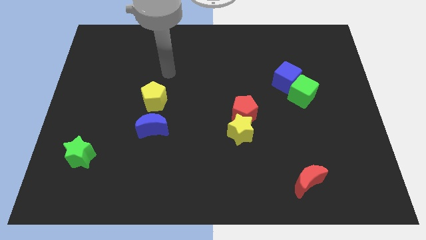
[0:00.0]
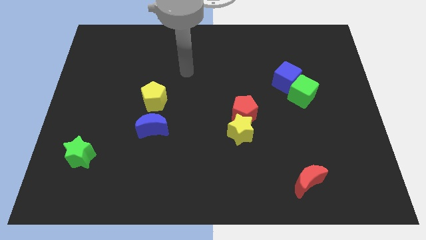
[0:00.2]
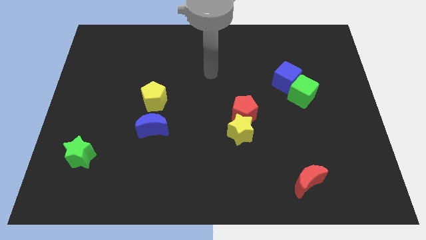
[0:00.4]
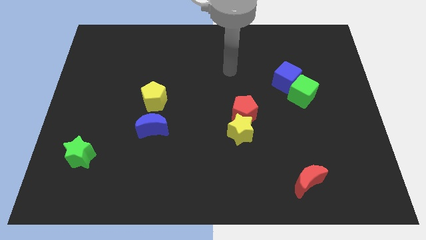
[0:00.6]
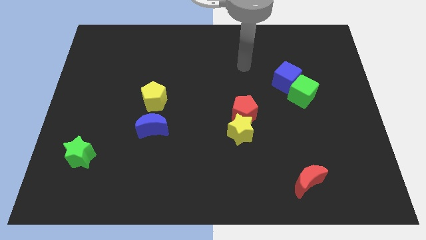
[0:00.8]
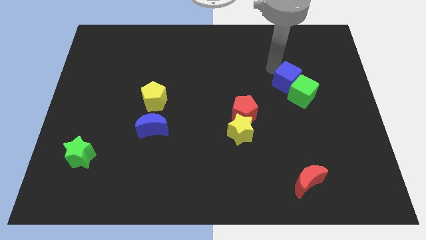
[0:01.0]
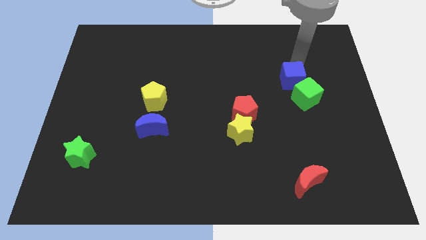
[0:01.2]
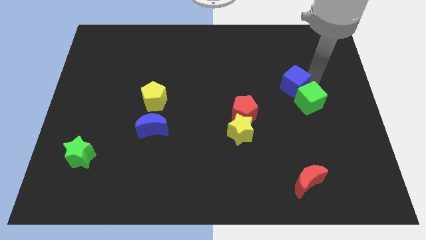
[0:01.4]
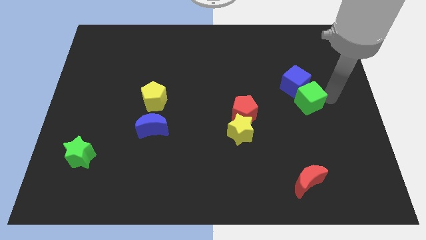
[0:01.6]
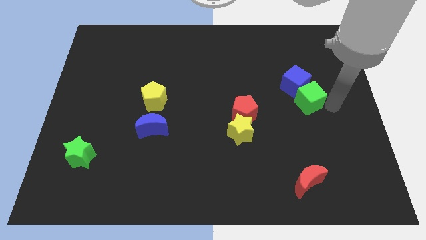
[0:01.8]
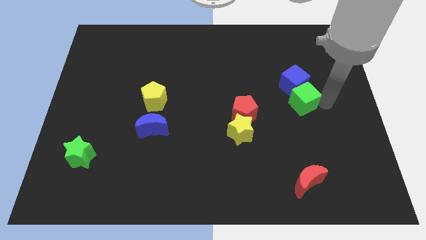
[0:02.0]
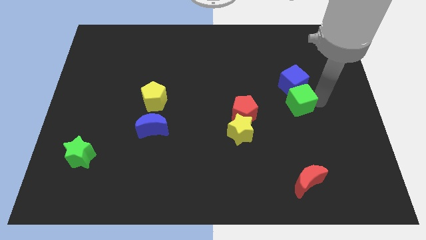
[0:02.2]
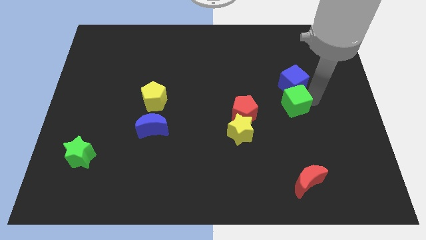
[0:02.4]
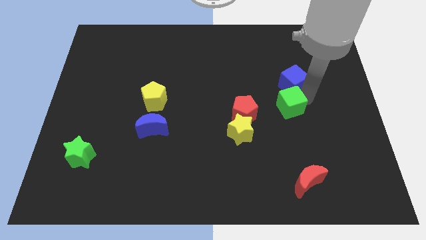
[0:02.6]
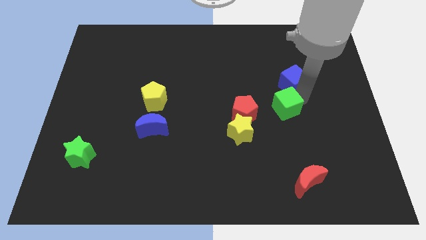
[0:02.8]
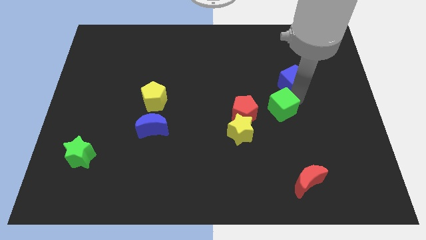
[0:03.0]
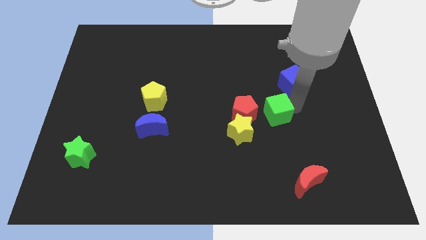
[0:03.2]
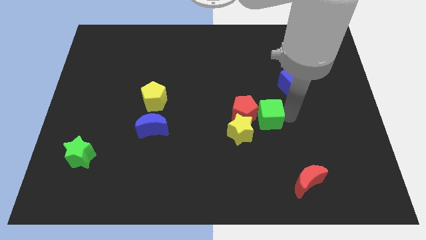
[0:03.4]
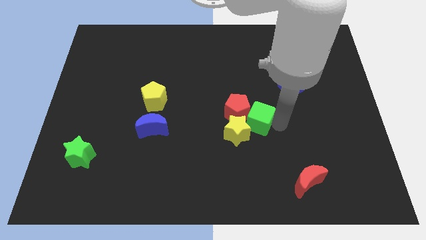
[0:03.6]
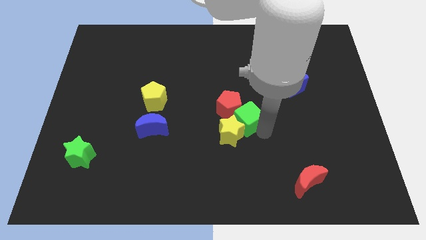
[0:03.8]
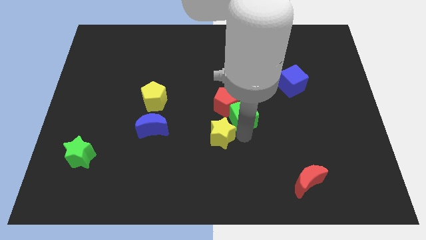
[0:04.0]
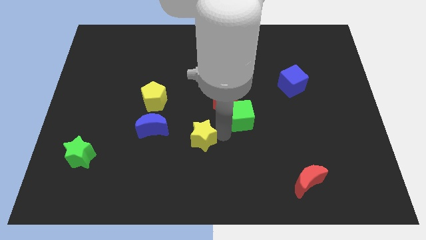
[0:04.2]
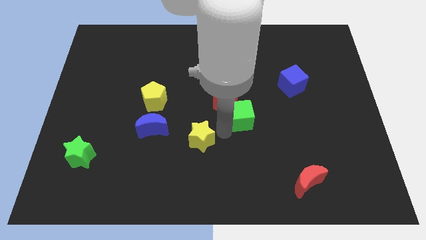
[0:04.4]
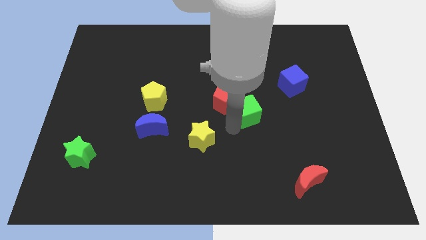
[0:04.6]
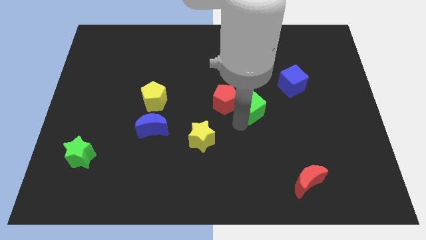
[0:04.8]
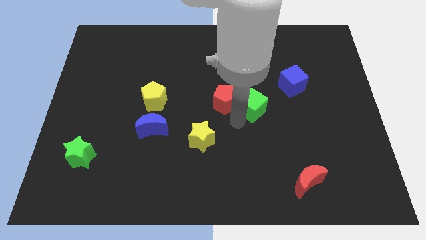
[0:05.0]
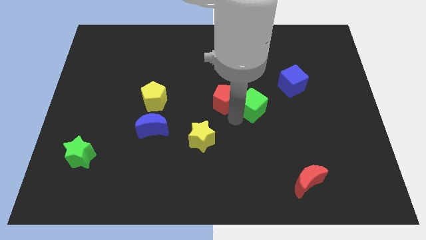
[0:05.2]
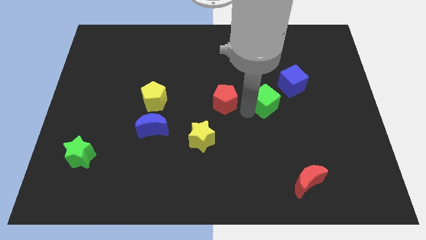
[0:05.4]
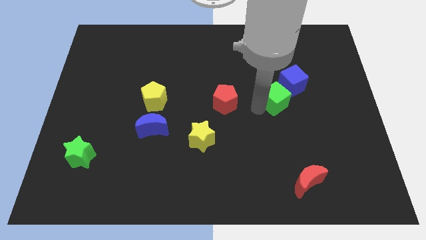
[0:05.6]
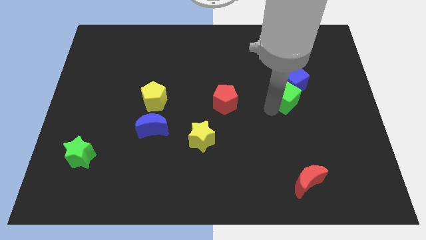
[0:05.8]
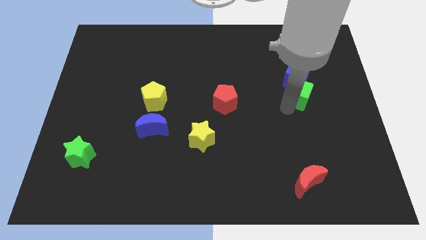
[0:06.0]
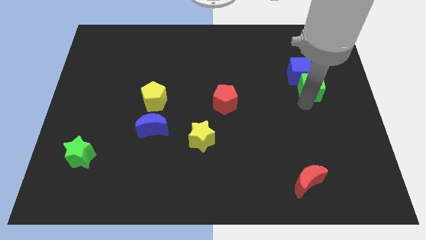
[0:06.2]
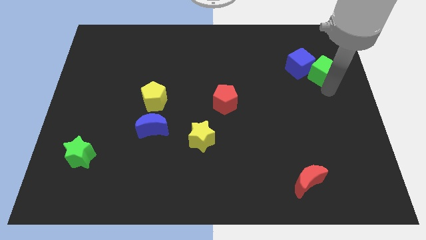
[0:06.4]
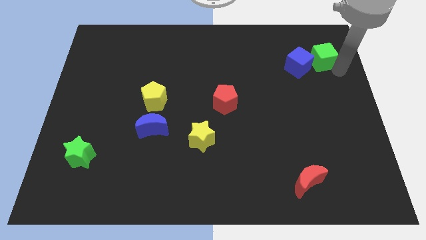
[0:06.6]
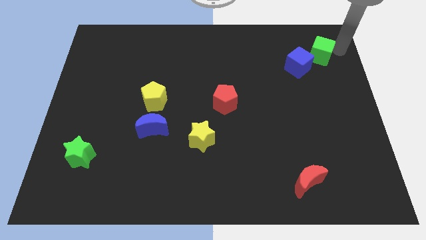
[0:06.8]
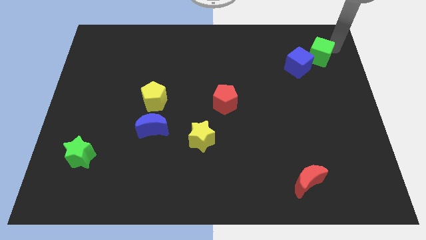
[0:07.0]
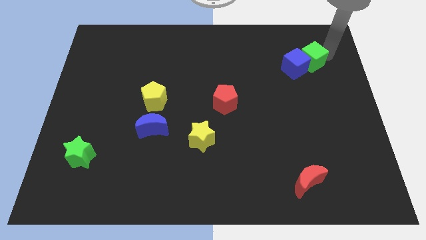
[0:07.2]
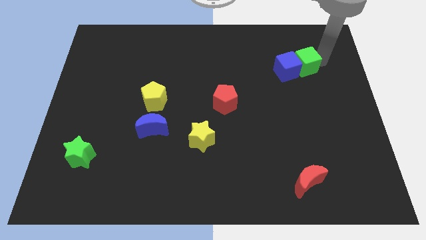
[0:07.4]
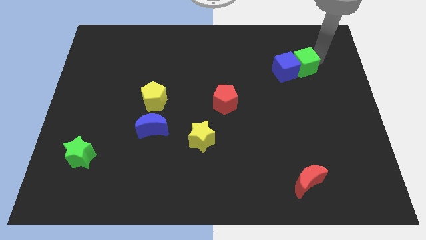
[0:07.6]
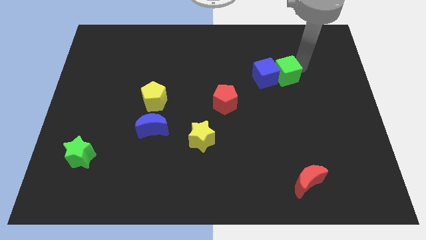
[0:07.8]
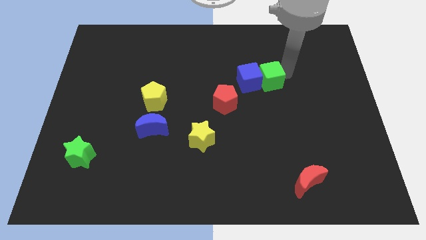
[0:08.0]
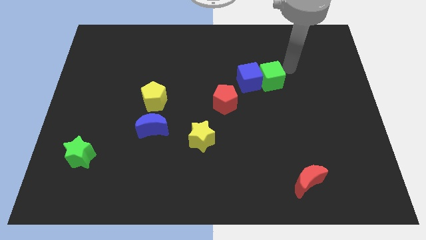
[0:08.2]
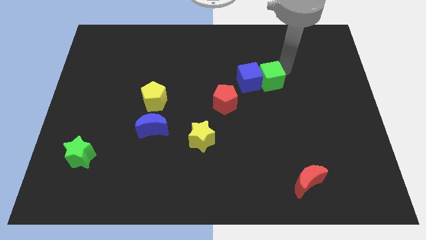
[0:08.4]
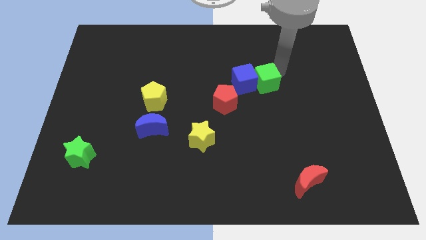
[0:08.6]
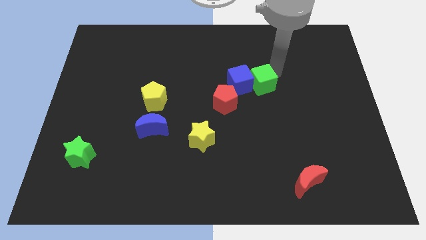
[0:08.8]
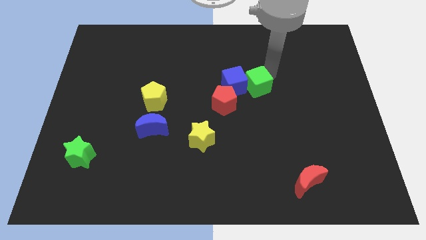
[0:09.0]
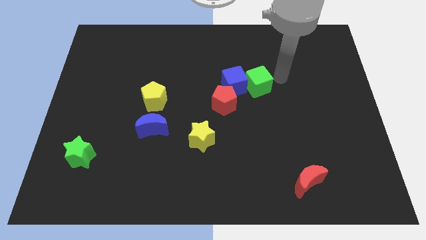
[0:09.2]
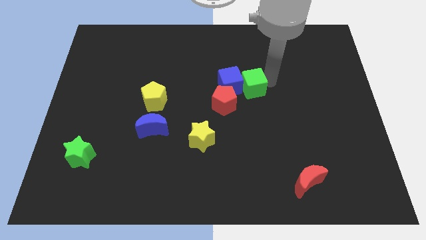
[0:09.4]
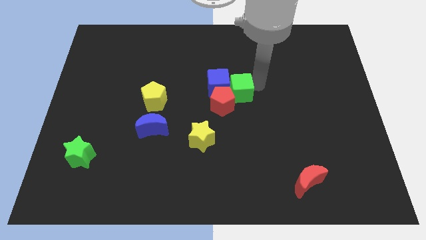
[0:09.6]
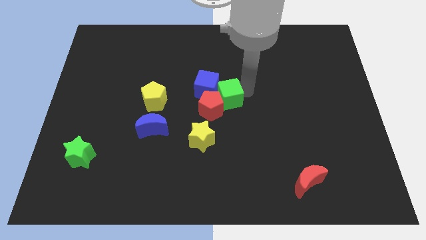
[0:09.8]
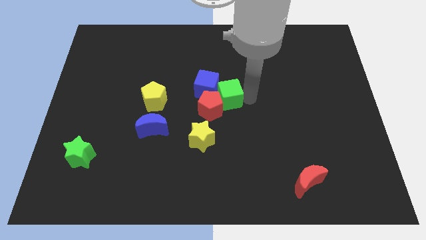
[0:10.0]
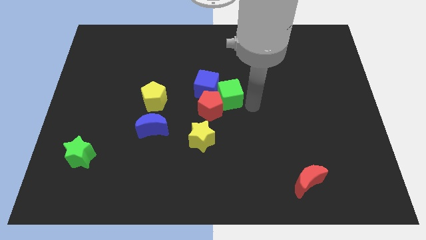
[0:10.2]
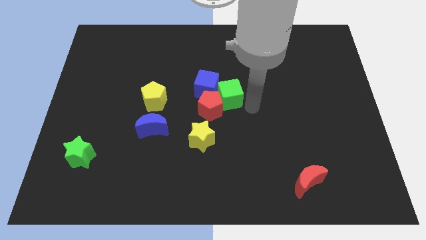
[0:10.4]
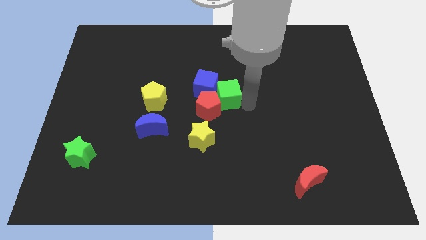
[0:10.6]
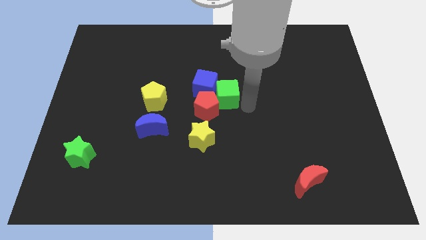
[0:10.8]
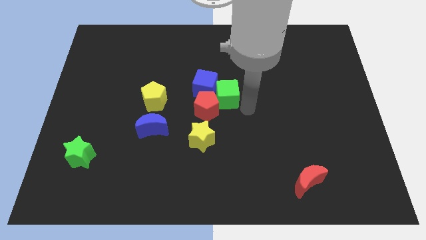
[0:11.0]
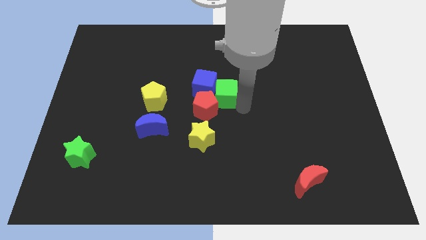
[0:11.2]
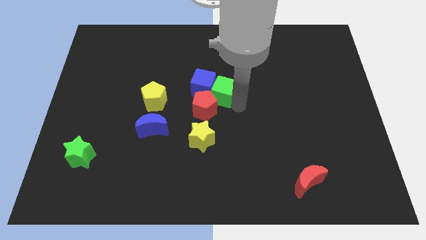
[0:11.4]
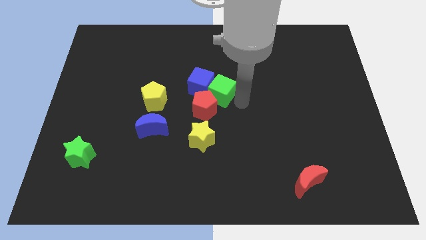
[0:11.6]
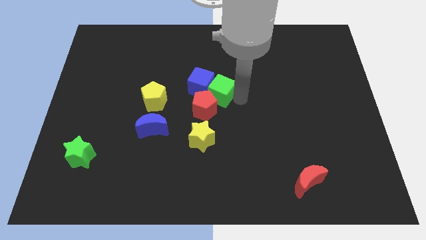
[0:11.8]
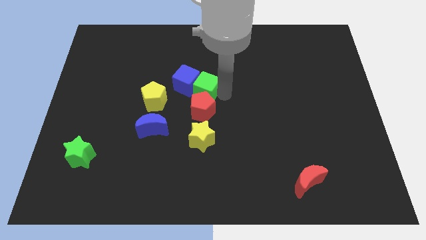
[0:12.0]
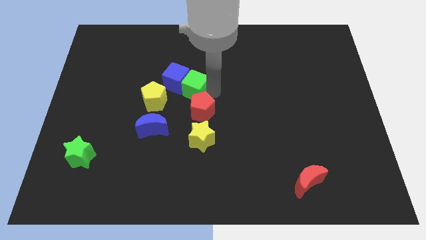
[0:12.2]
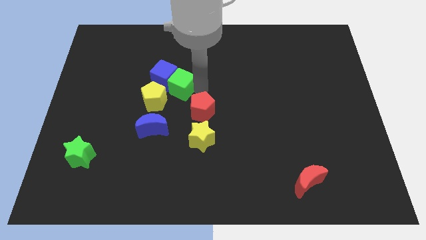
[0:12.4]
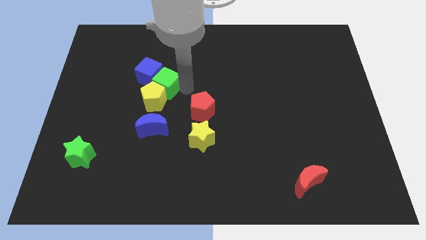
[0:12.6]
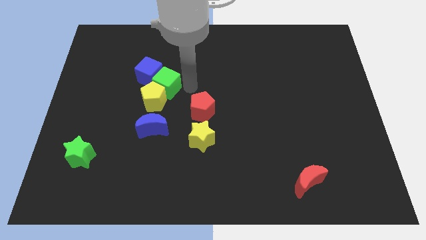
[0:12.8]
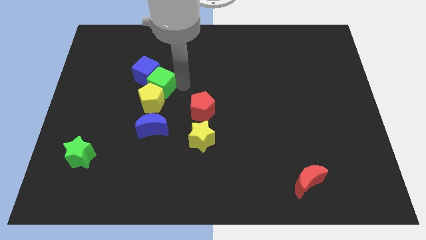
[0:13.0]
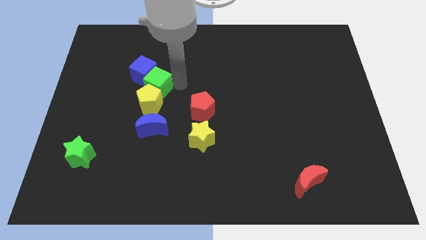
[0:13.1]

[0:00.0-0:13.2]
push the green cube to the top left of the yellow pentagon

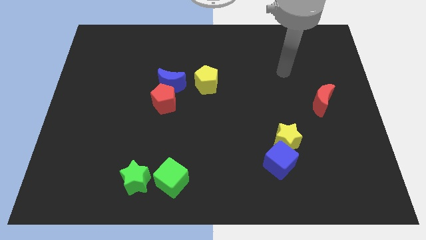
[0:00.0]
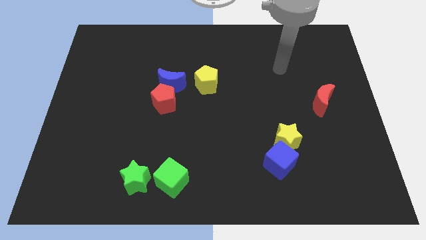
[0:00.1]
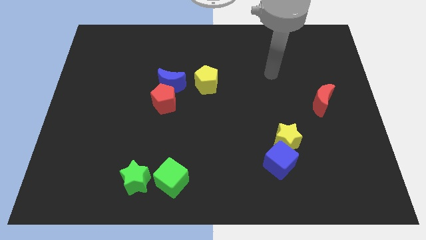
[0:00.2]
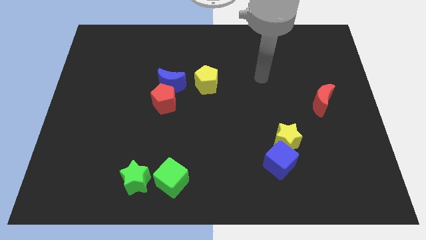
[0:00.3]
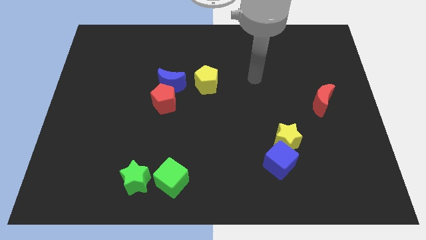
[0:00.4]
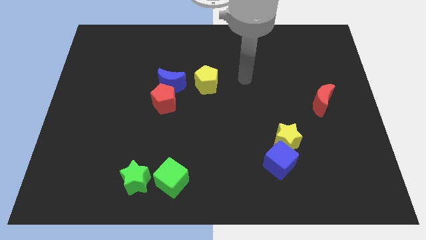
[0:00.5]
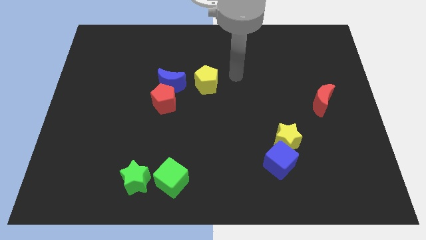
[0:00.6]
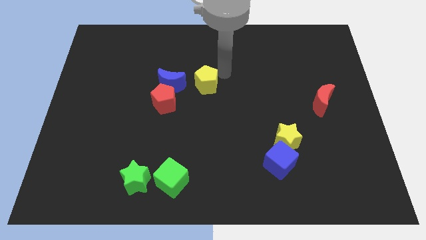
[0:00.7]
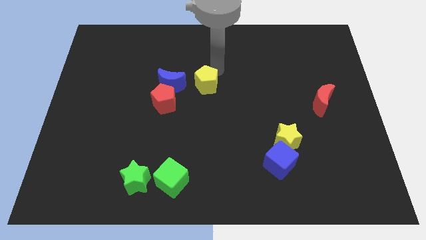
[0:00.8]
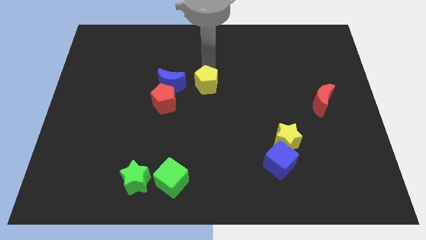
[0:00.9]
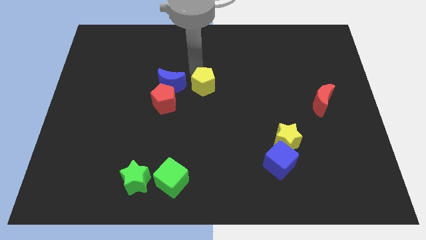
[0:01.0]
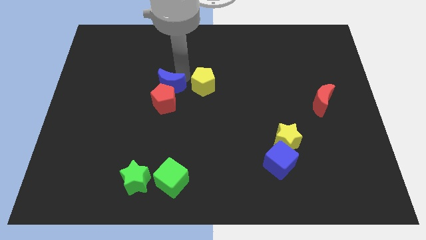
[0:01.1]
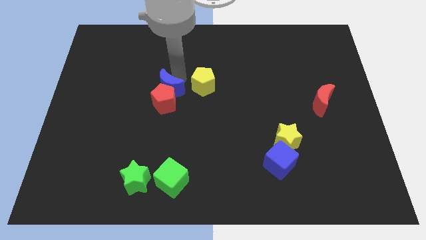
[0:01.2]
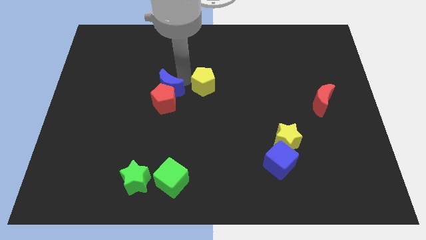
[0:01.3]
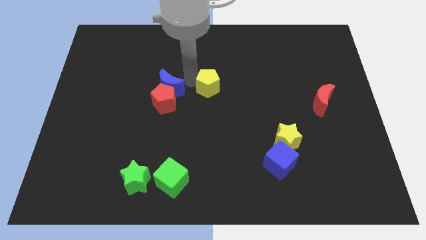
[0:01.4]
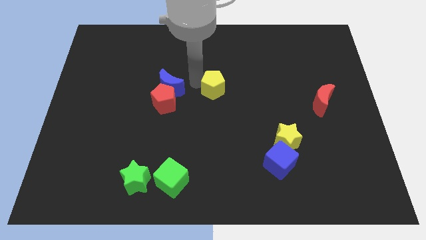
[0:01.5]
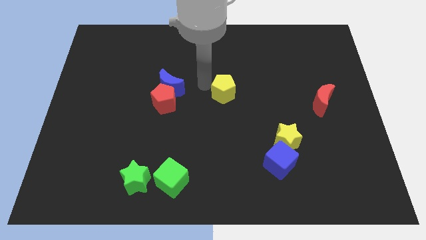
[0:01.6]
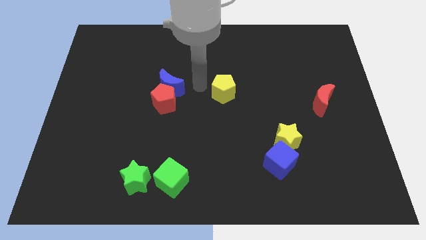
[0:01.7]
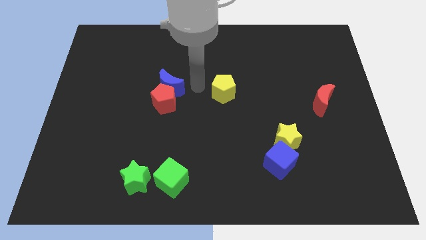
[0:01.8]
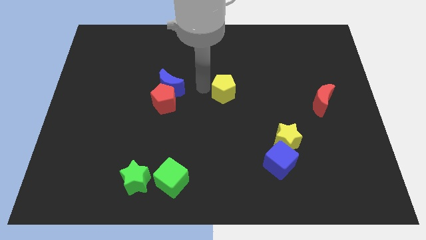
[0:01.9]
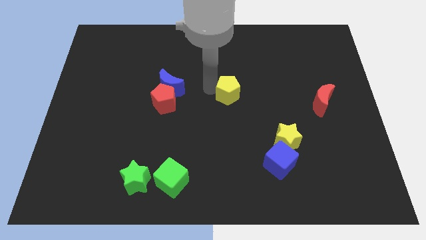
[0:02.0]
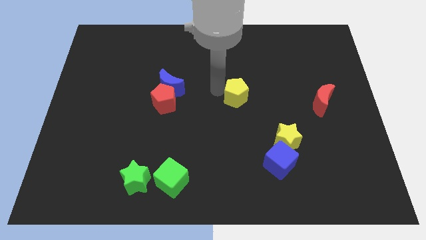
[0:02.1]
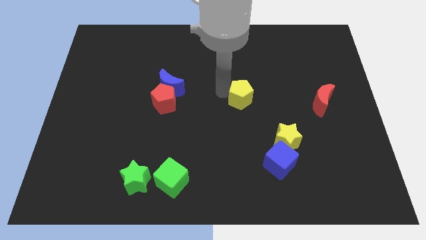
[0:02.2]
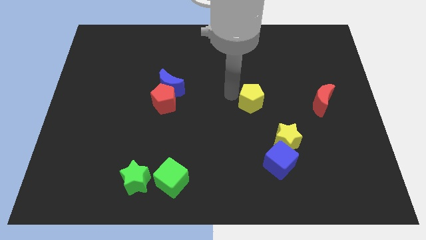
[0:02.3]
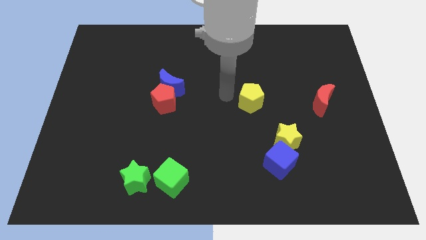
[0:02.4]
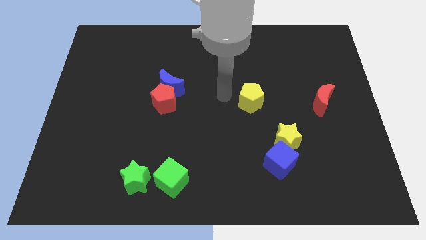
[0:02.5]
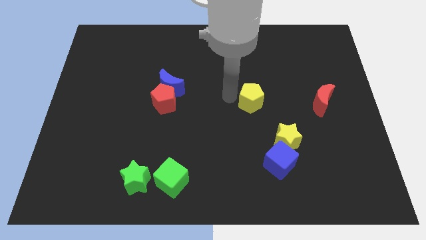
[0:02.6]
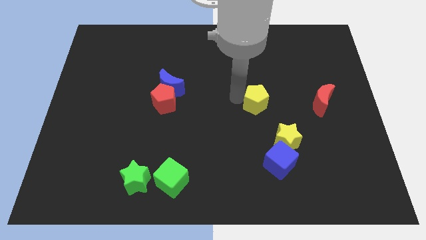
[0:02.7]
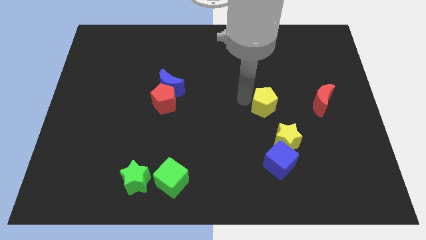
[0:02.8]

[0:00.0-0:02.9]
put the yellow pentagon above the yellow star
